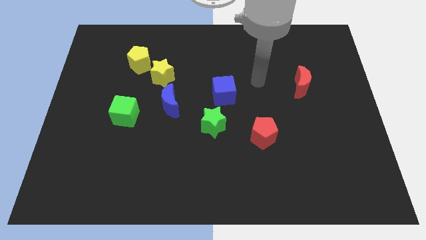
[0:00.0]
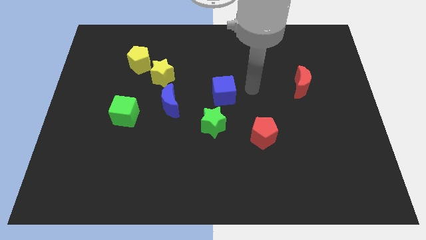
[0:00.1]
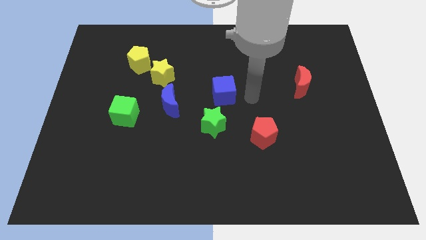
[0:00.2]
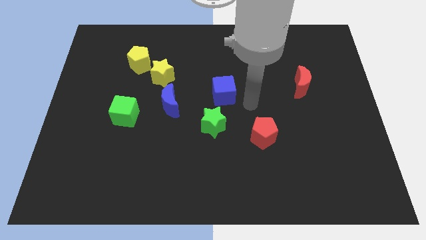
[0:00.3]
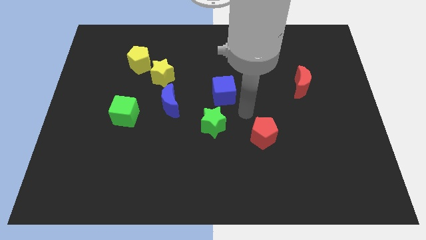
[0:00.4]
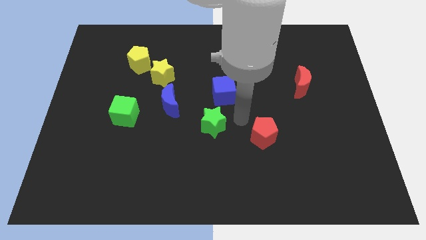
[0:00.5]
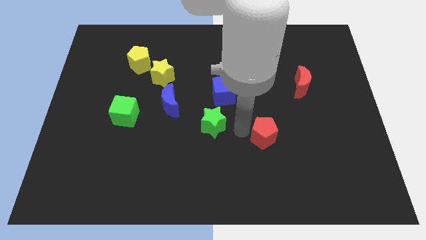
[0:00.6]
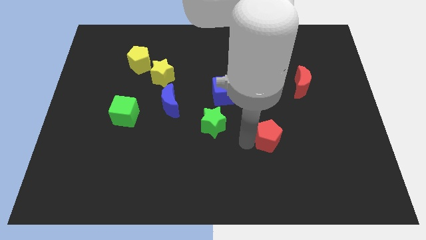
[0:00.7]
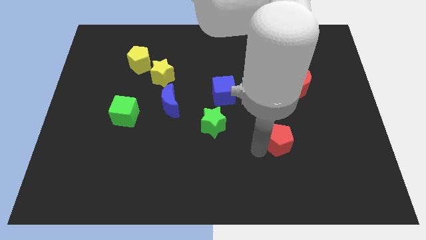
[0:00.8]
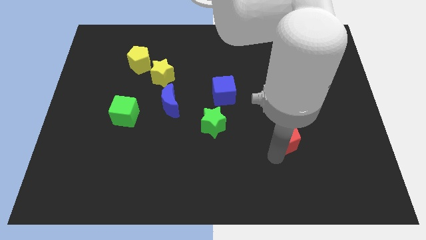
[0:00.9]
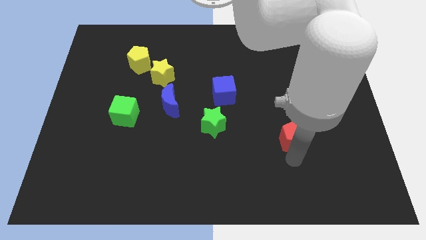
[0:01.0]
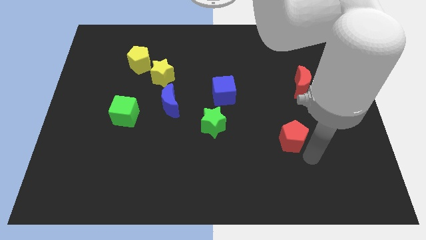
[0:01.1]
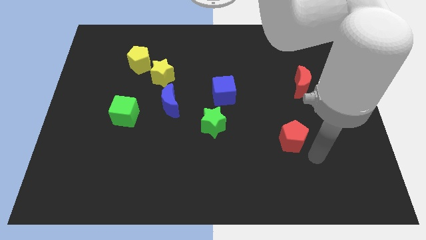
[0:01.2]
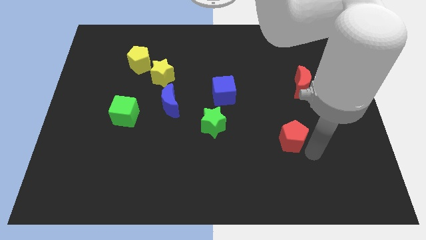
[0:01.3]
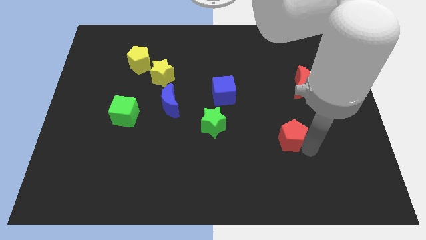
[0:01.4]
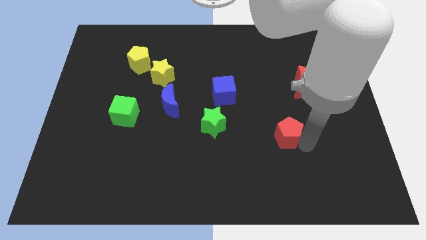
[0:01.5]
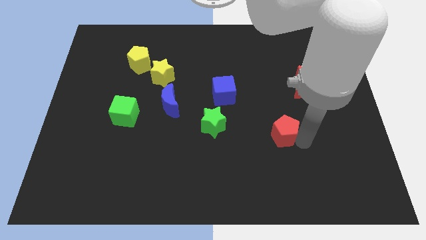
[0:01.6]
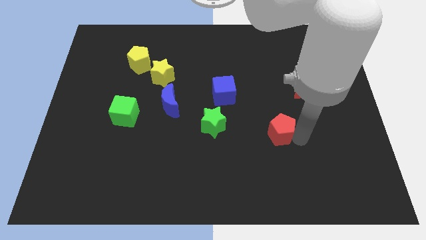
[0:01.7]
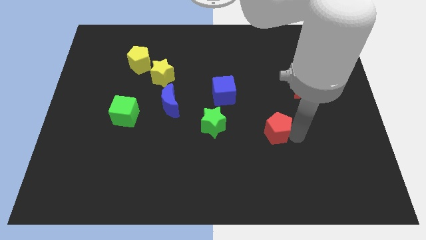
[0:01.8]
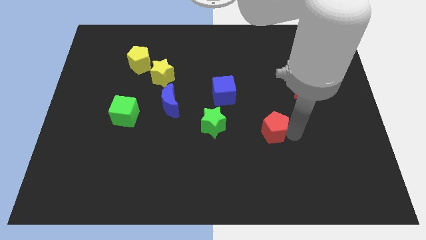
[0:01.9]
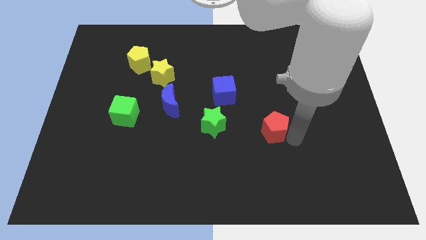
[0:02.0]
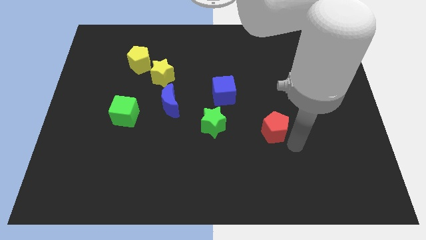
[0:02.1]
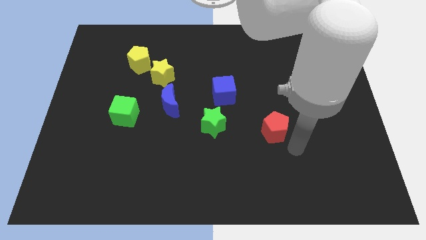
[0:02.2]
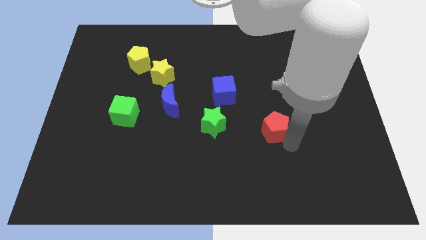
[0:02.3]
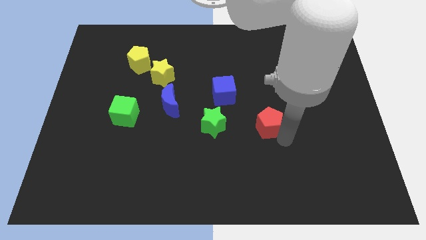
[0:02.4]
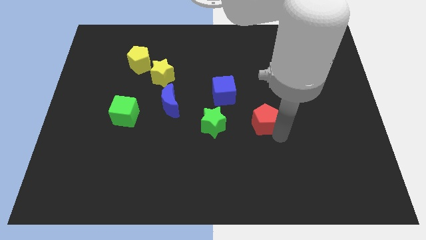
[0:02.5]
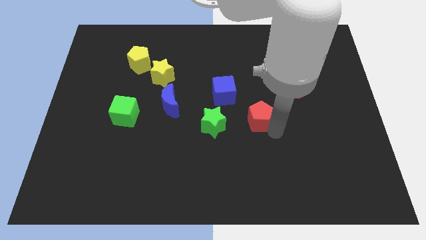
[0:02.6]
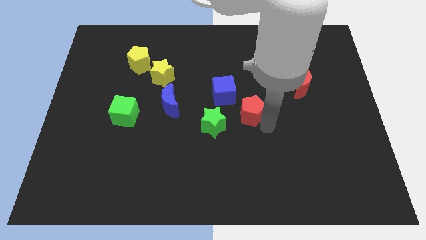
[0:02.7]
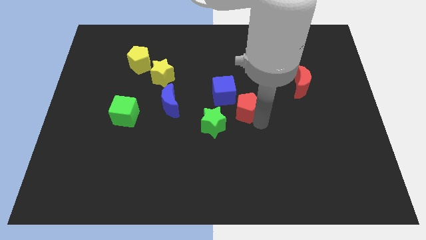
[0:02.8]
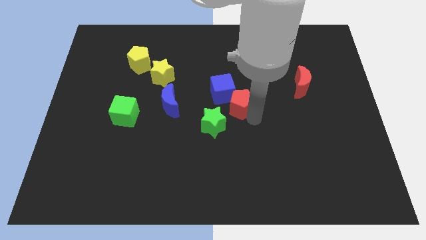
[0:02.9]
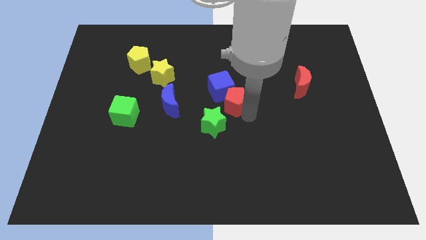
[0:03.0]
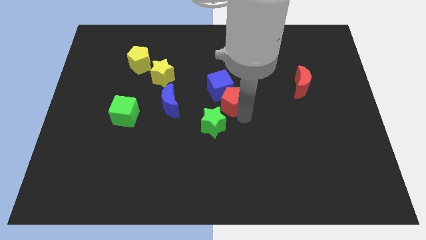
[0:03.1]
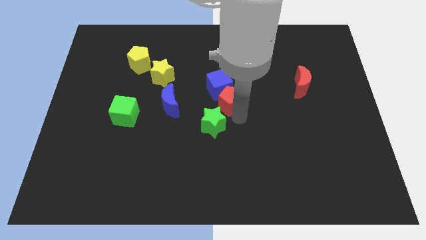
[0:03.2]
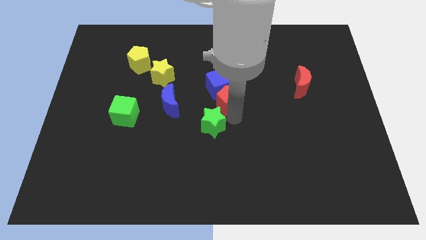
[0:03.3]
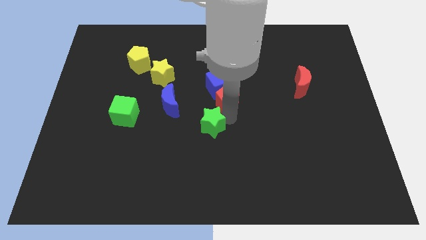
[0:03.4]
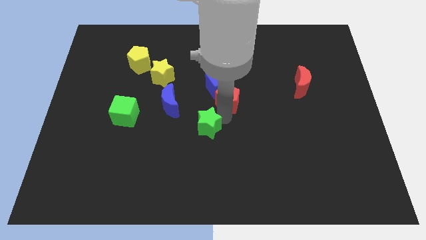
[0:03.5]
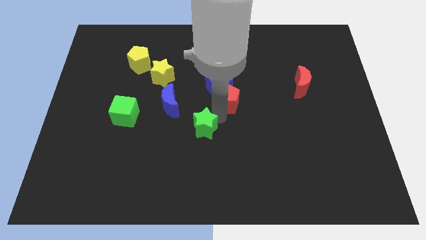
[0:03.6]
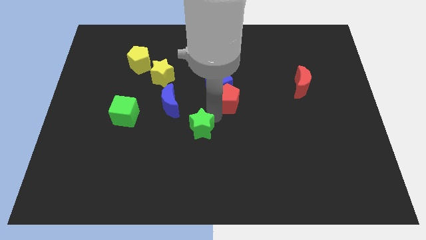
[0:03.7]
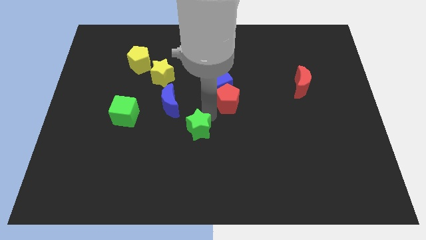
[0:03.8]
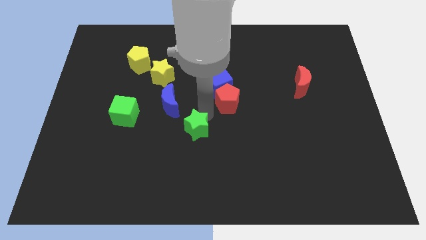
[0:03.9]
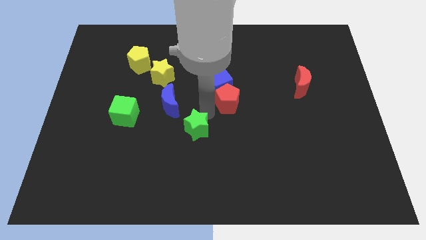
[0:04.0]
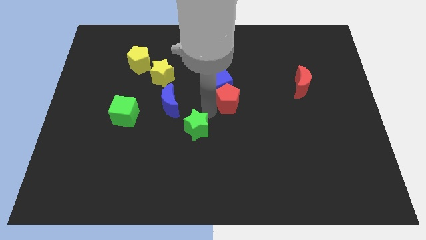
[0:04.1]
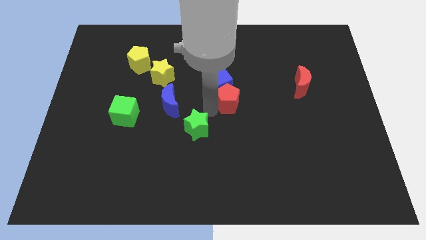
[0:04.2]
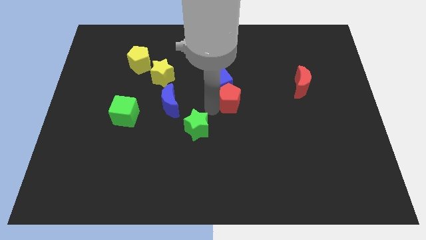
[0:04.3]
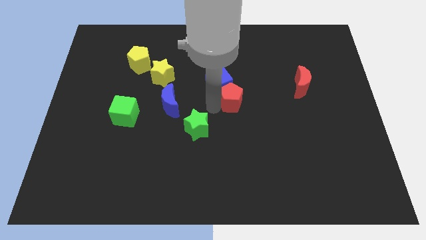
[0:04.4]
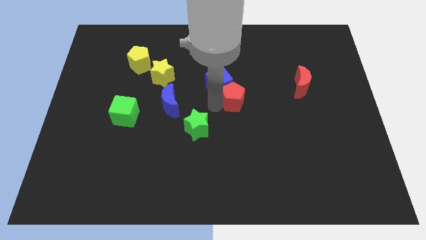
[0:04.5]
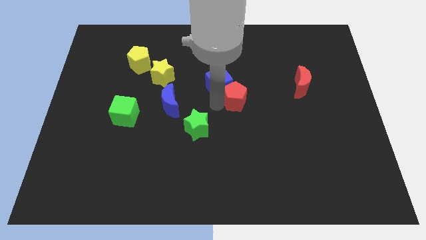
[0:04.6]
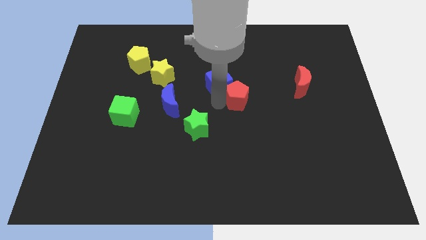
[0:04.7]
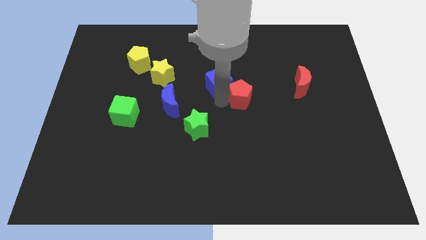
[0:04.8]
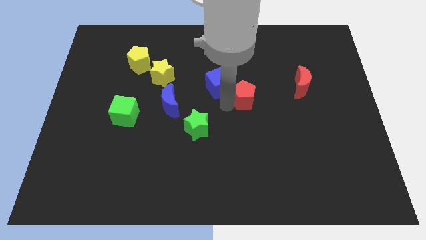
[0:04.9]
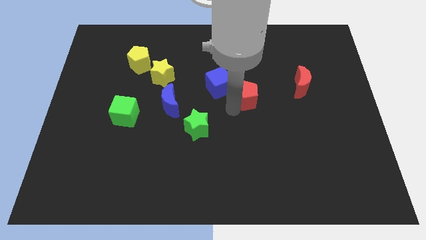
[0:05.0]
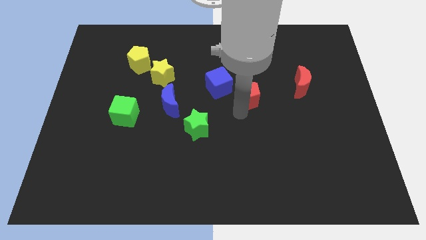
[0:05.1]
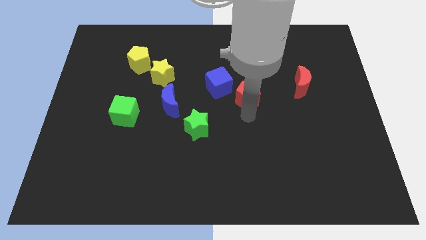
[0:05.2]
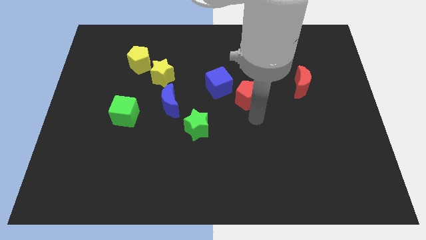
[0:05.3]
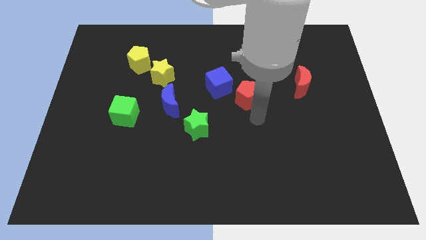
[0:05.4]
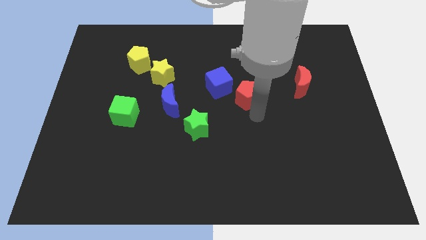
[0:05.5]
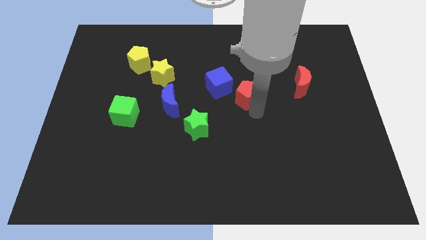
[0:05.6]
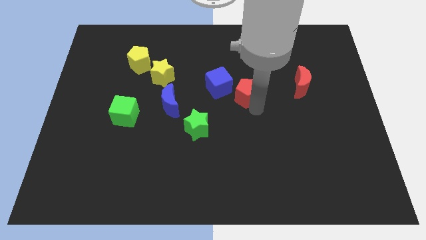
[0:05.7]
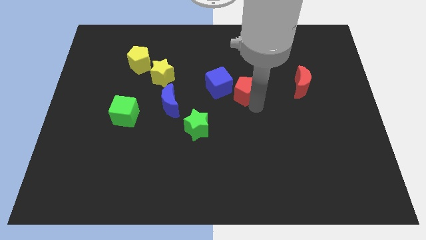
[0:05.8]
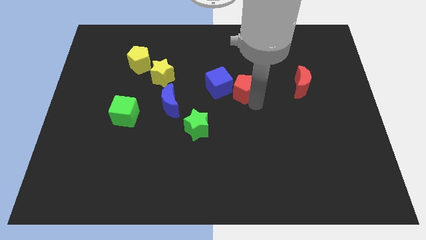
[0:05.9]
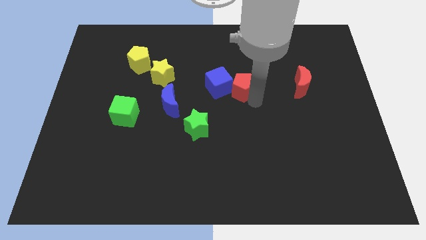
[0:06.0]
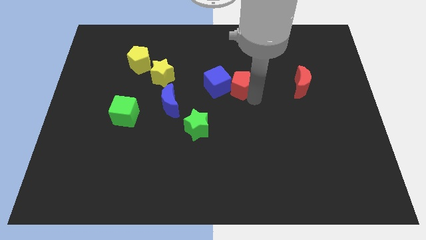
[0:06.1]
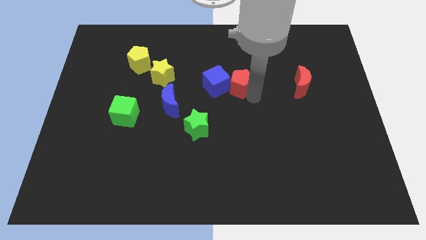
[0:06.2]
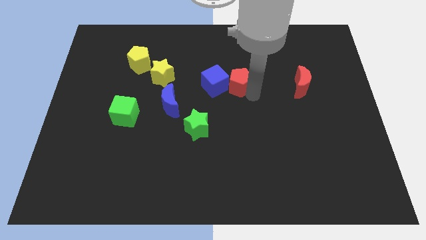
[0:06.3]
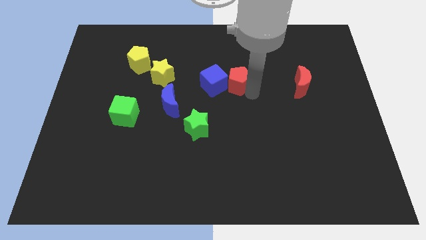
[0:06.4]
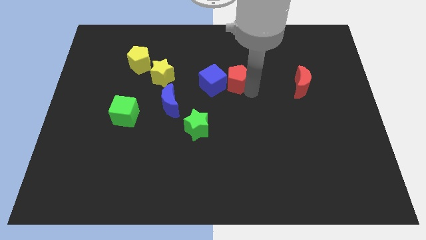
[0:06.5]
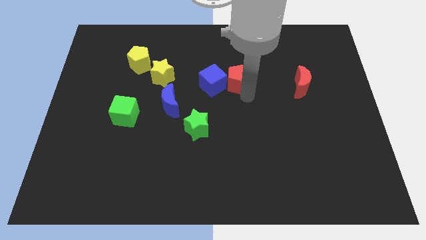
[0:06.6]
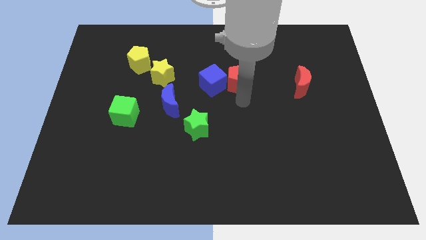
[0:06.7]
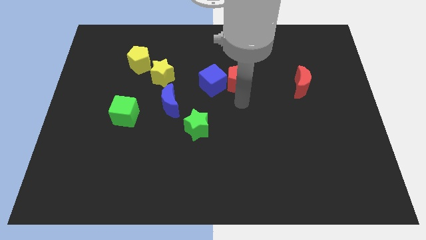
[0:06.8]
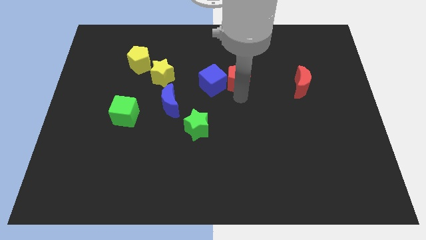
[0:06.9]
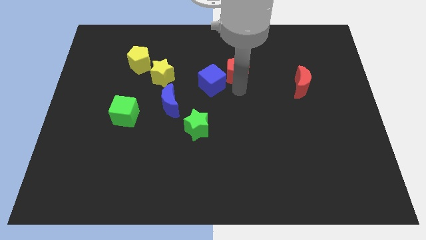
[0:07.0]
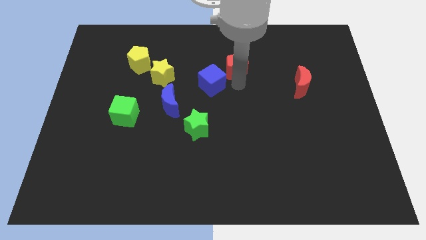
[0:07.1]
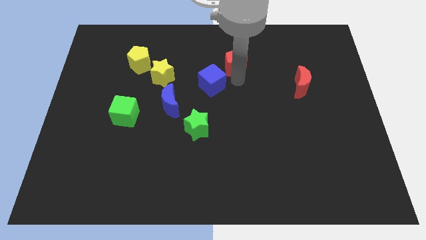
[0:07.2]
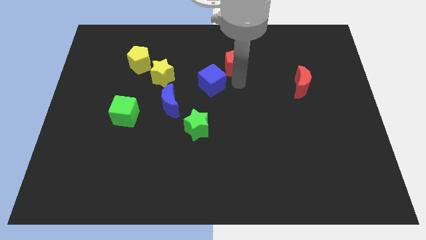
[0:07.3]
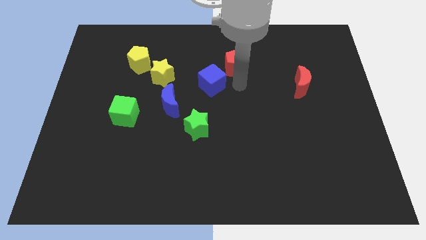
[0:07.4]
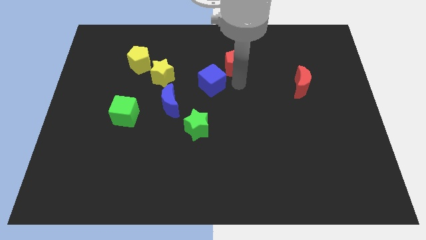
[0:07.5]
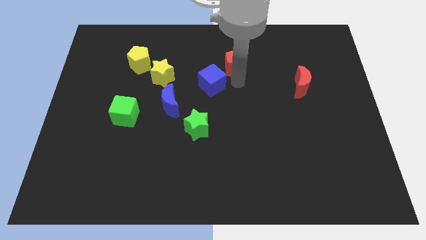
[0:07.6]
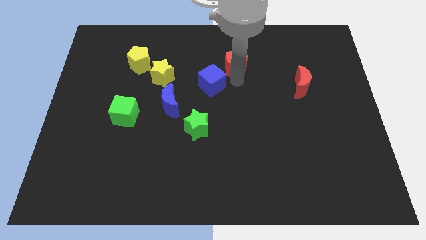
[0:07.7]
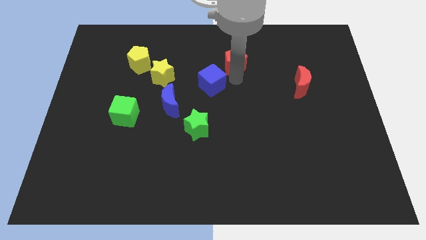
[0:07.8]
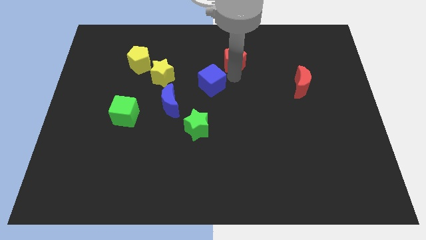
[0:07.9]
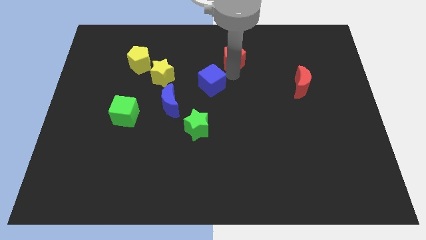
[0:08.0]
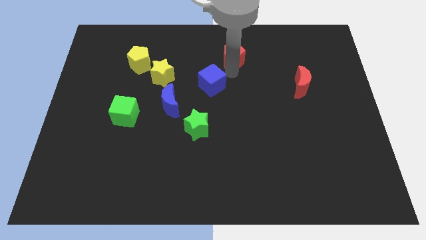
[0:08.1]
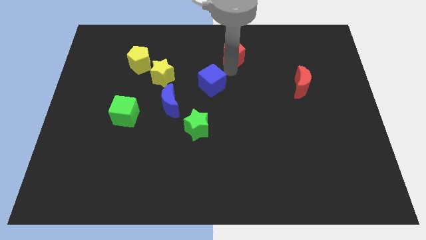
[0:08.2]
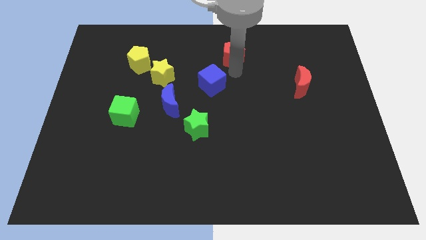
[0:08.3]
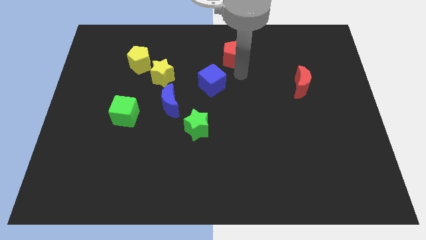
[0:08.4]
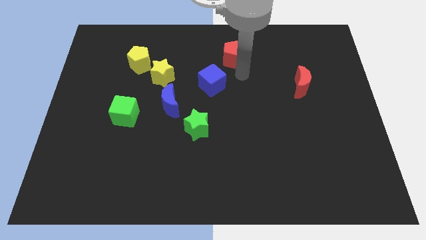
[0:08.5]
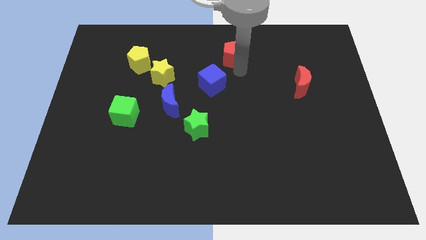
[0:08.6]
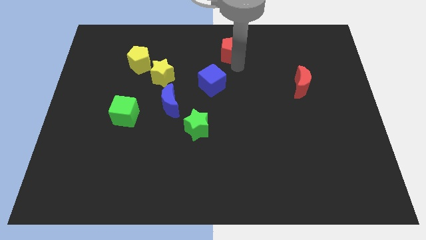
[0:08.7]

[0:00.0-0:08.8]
slide the red pentagon to the top
